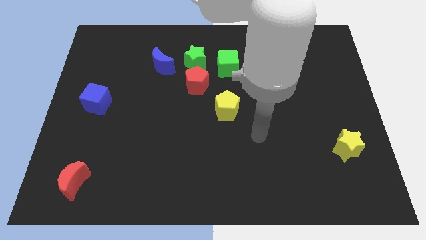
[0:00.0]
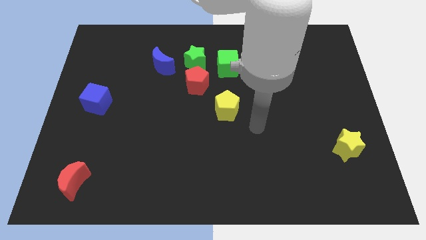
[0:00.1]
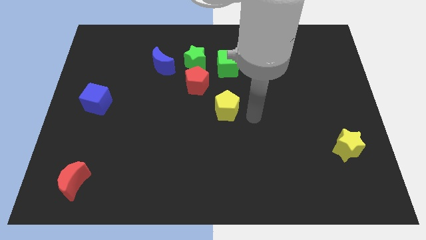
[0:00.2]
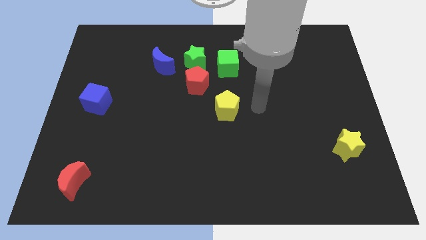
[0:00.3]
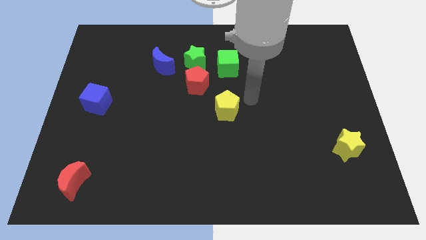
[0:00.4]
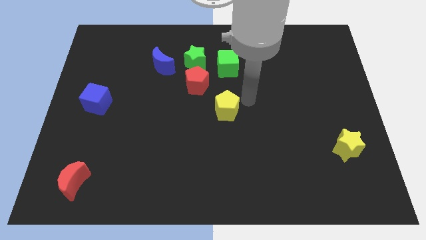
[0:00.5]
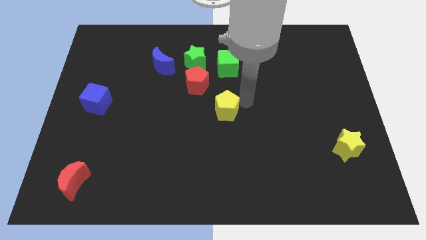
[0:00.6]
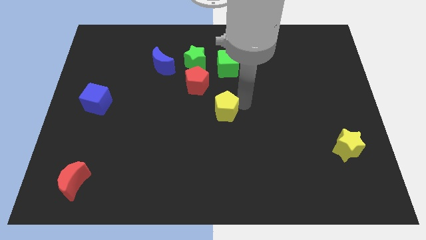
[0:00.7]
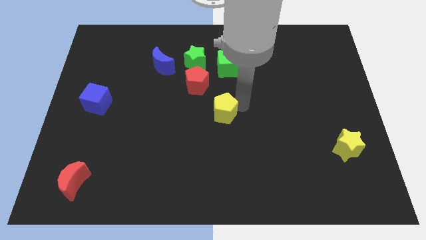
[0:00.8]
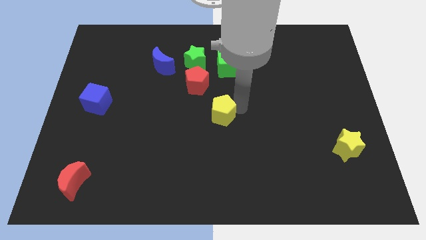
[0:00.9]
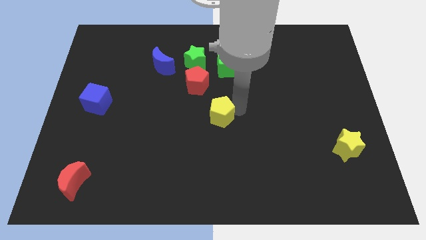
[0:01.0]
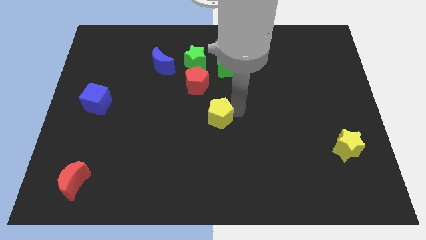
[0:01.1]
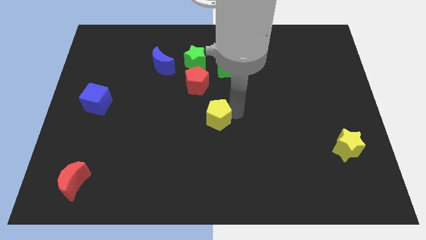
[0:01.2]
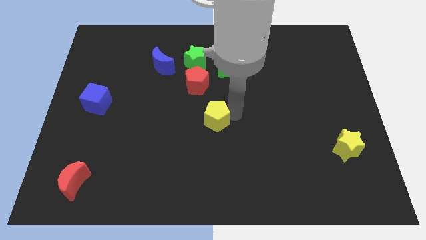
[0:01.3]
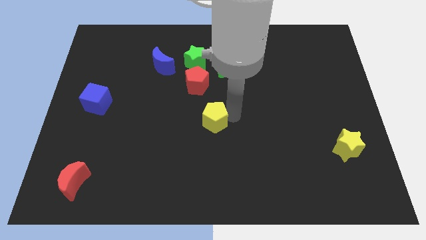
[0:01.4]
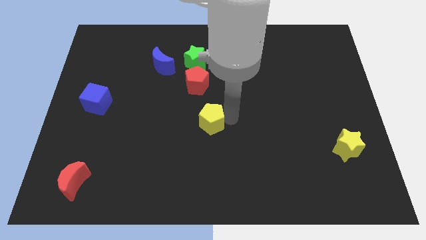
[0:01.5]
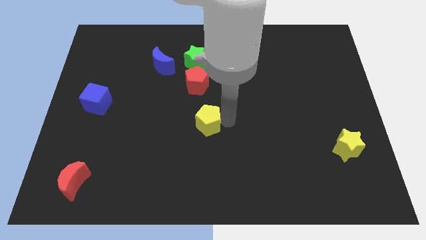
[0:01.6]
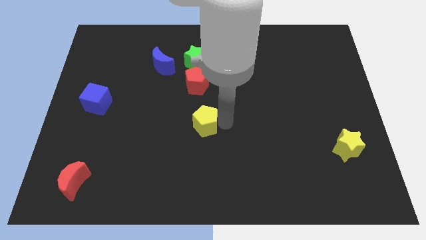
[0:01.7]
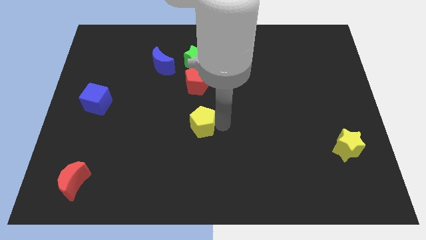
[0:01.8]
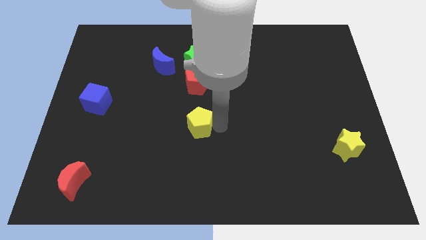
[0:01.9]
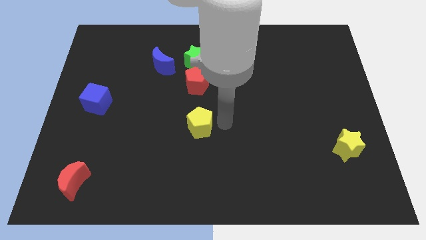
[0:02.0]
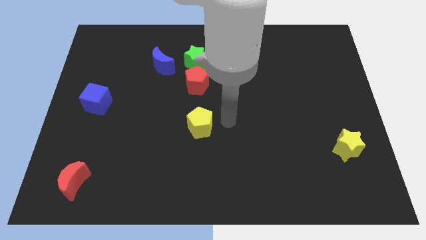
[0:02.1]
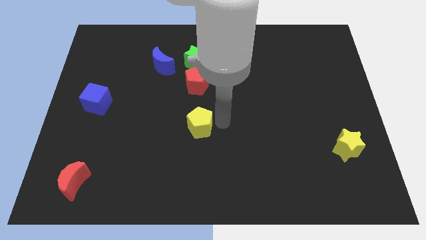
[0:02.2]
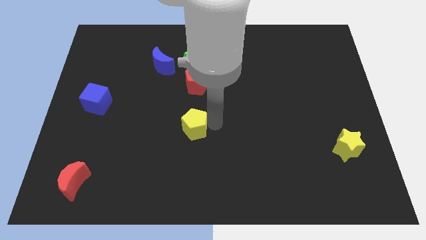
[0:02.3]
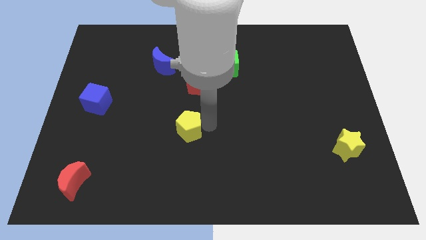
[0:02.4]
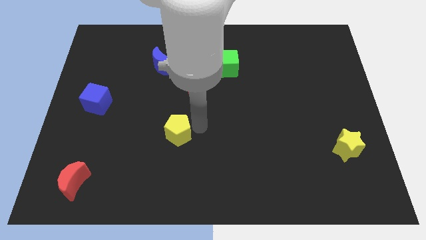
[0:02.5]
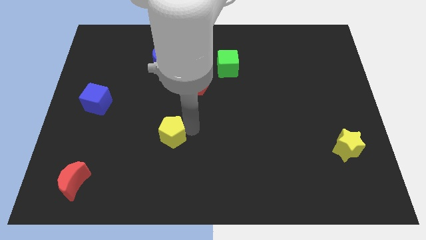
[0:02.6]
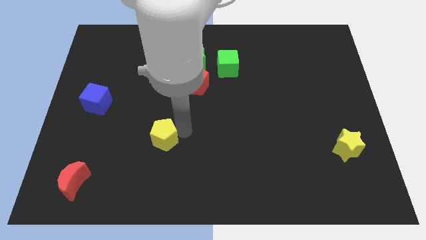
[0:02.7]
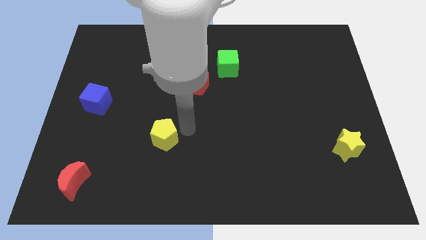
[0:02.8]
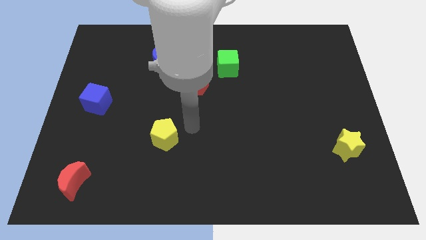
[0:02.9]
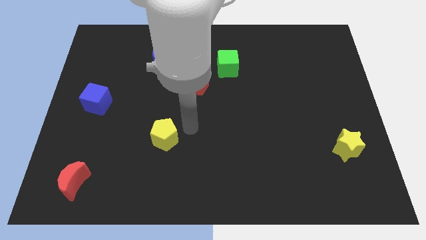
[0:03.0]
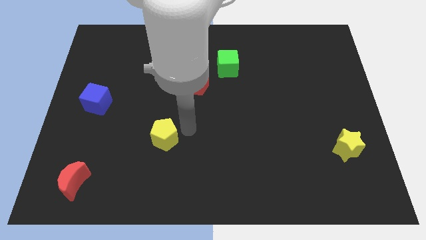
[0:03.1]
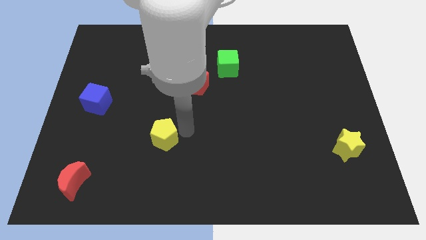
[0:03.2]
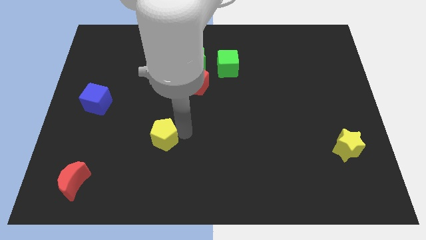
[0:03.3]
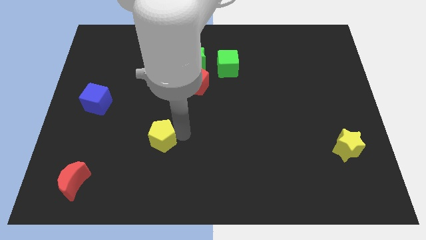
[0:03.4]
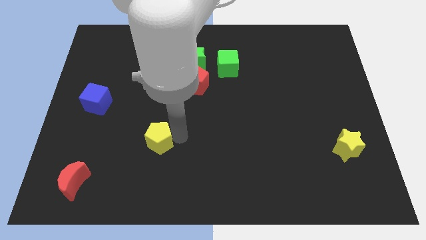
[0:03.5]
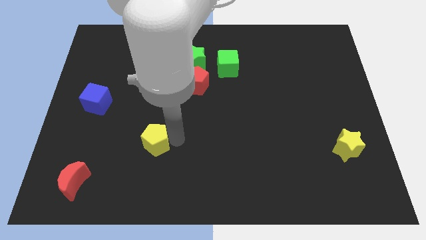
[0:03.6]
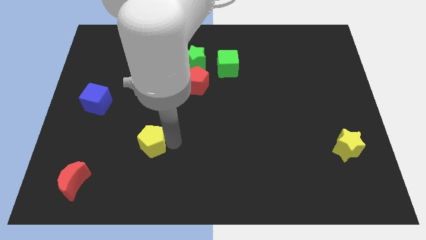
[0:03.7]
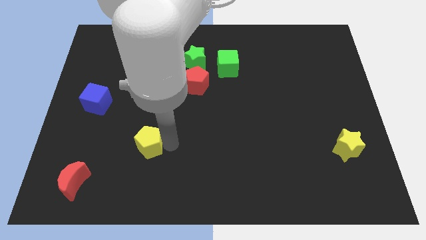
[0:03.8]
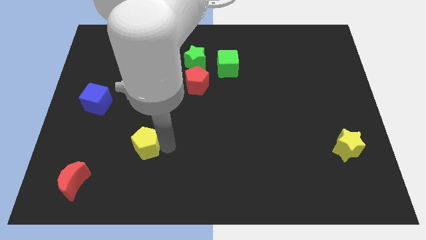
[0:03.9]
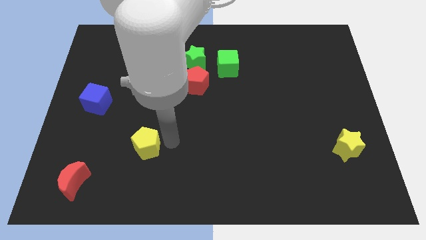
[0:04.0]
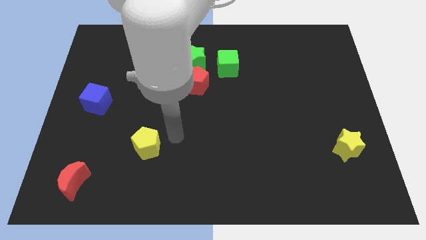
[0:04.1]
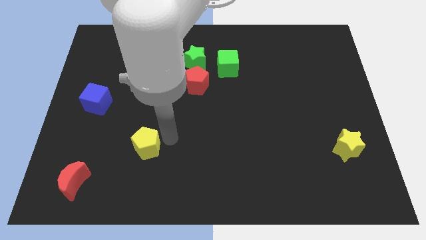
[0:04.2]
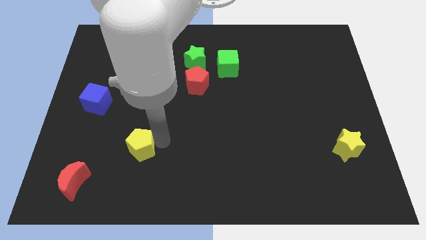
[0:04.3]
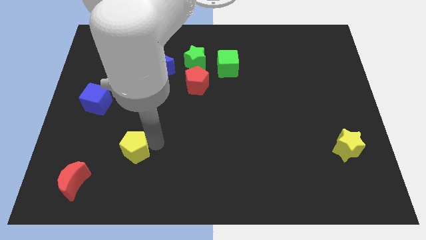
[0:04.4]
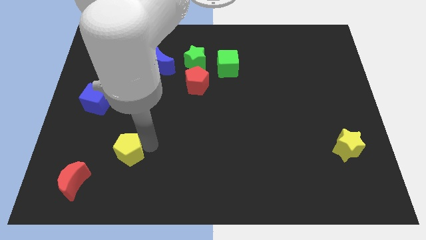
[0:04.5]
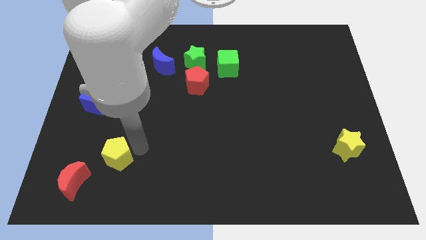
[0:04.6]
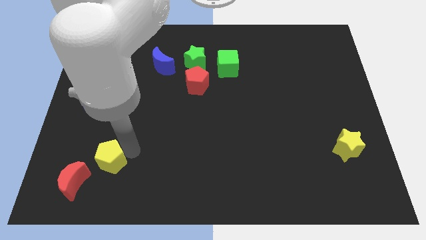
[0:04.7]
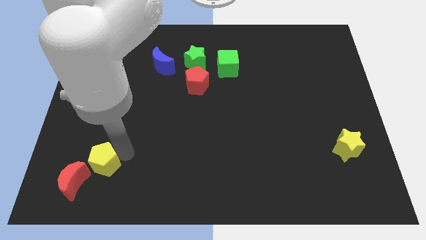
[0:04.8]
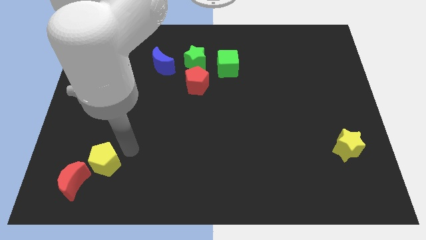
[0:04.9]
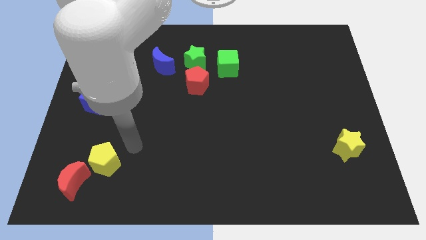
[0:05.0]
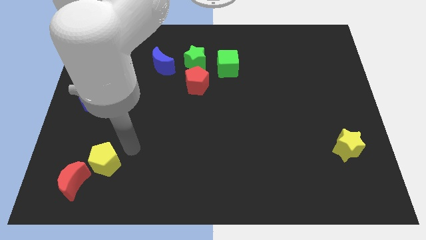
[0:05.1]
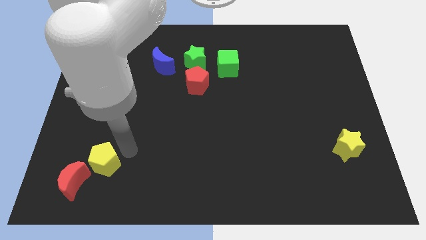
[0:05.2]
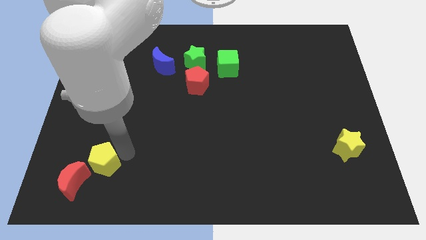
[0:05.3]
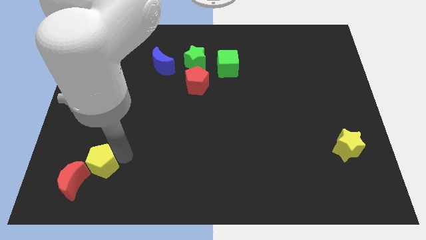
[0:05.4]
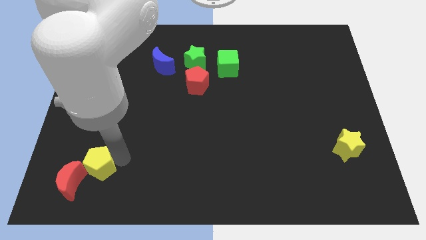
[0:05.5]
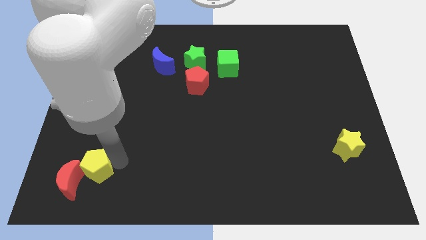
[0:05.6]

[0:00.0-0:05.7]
move the yellow pentagon next to the red moon

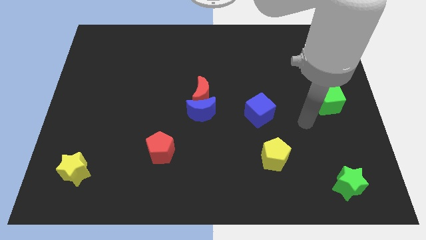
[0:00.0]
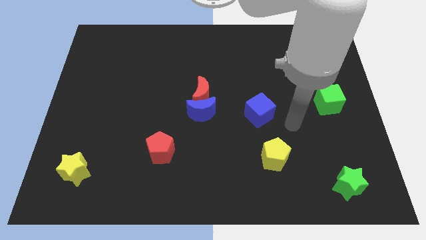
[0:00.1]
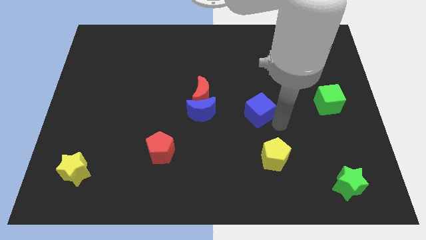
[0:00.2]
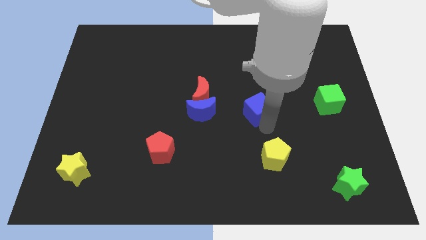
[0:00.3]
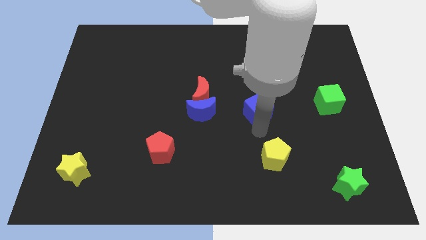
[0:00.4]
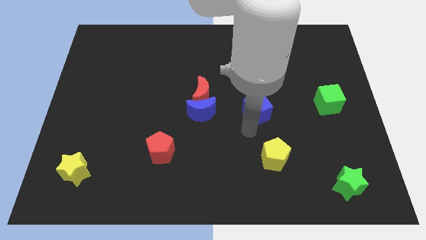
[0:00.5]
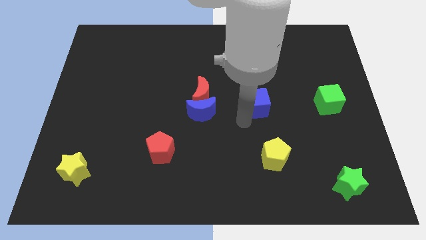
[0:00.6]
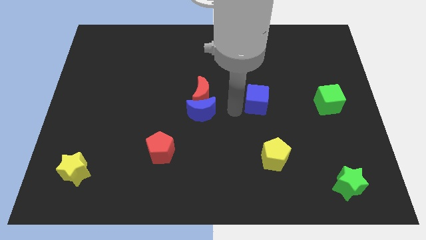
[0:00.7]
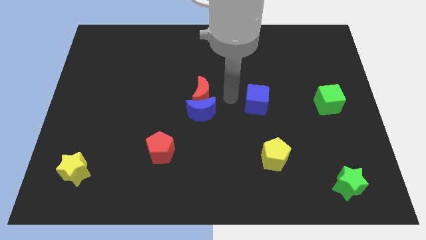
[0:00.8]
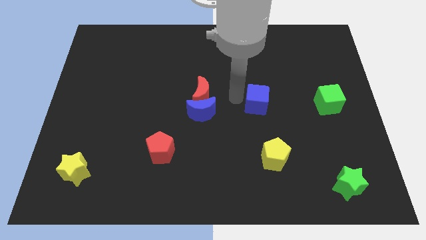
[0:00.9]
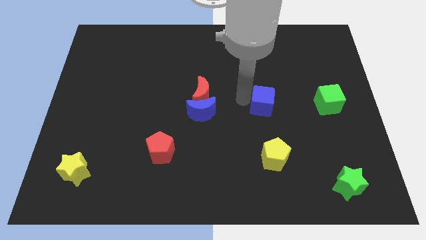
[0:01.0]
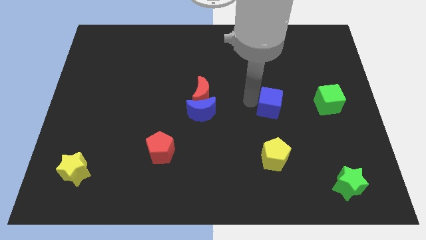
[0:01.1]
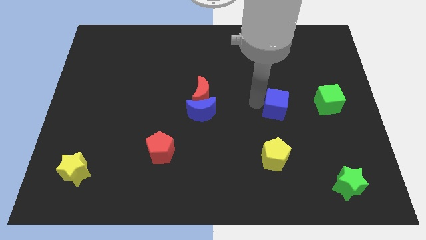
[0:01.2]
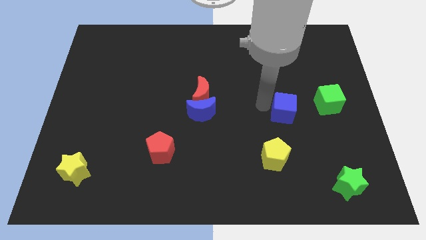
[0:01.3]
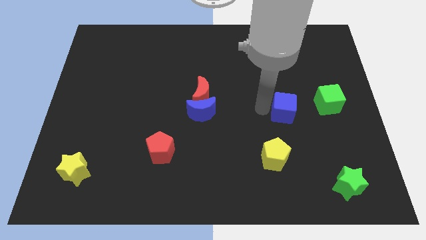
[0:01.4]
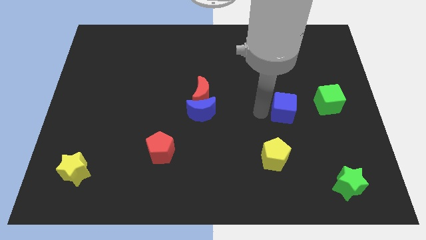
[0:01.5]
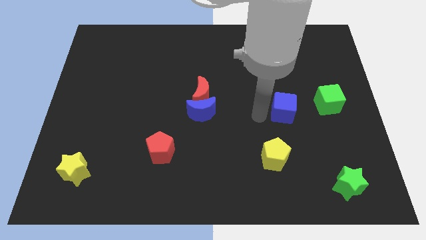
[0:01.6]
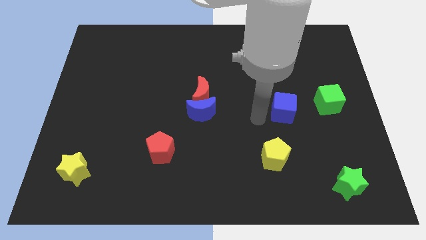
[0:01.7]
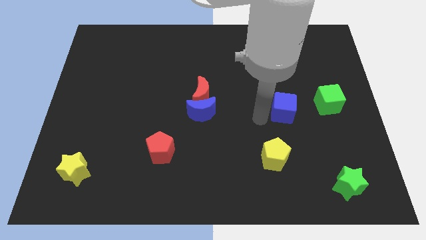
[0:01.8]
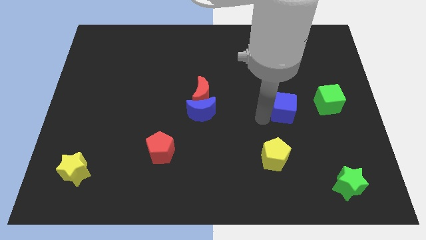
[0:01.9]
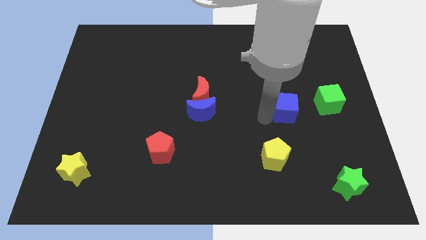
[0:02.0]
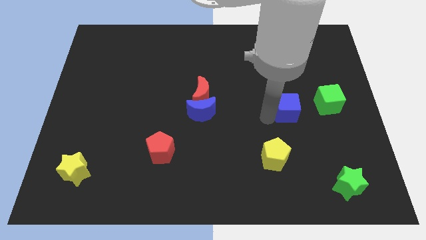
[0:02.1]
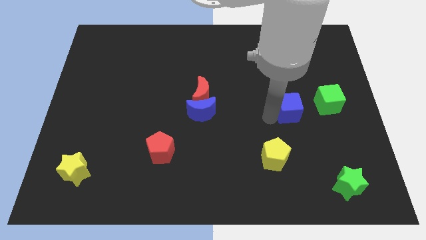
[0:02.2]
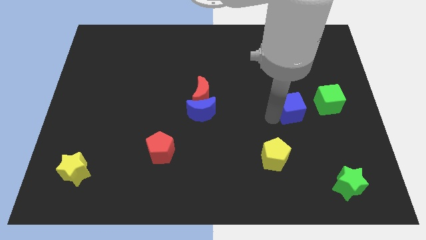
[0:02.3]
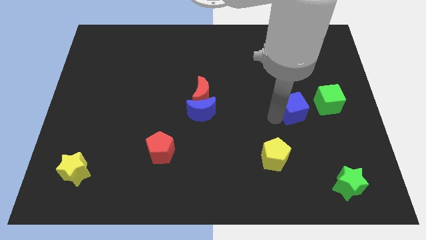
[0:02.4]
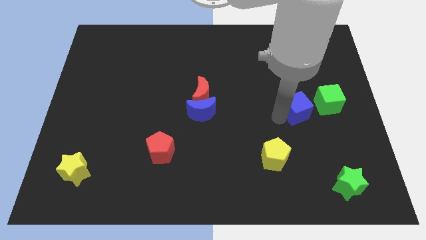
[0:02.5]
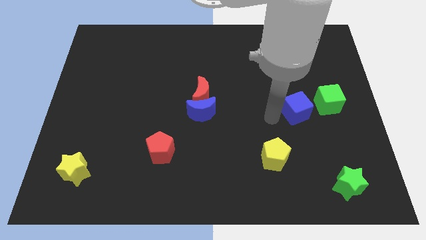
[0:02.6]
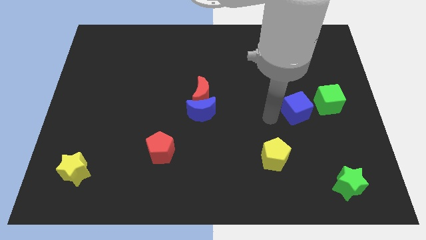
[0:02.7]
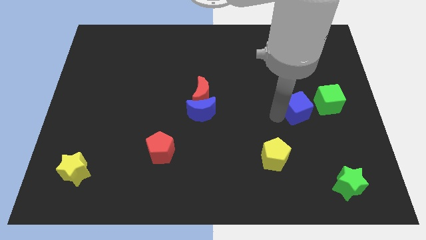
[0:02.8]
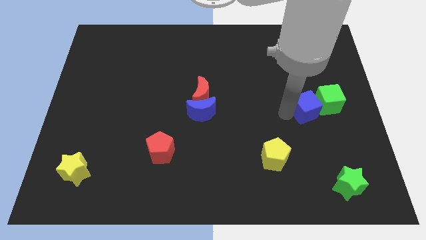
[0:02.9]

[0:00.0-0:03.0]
push the blue cube close to the green cube
